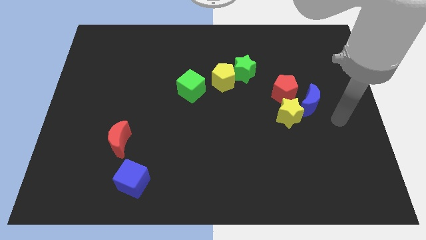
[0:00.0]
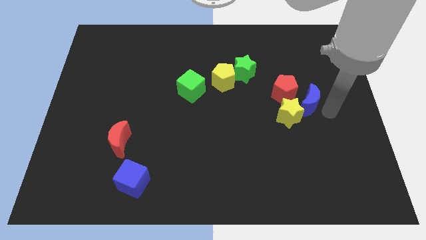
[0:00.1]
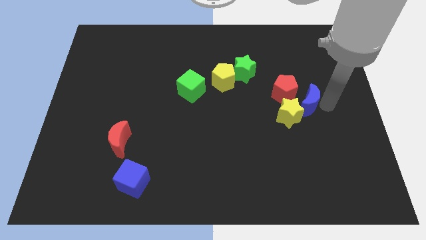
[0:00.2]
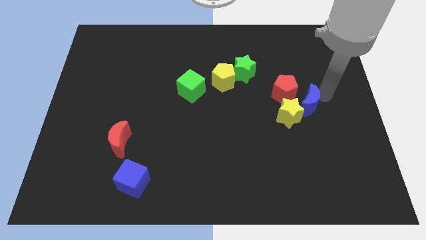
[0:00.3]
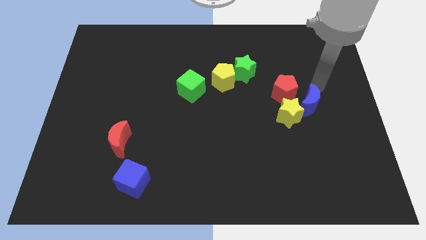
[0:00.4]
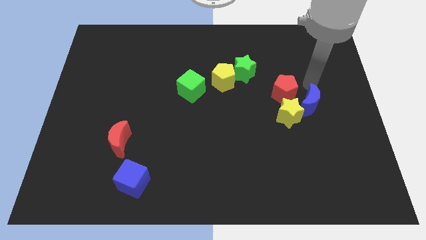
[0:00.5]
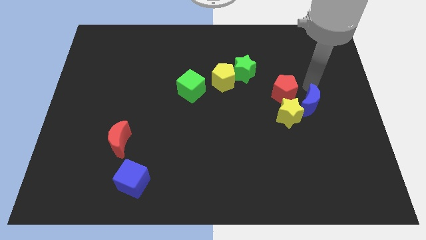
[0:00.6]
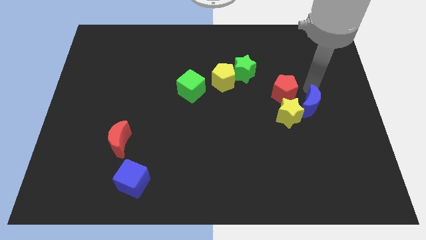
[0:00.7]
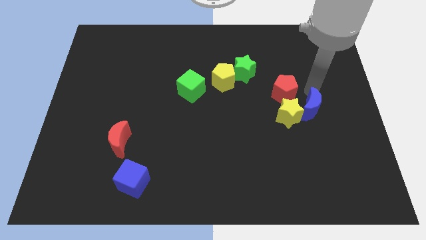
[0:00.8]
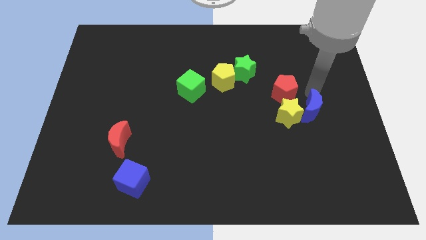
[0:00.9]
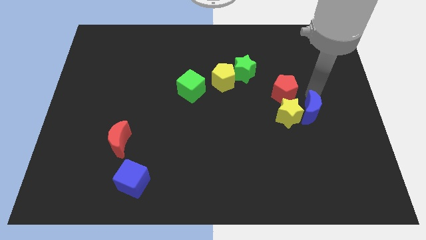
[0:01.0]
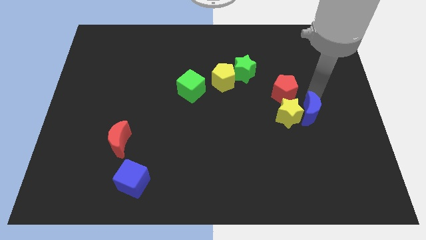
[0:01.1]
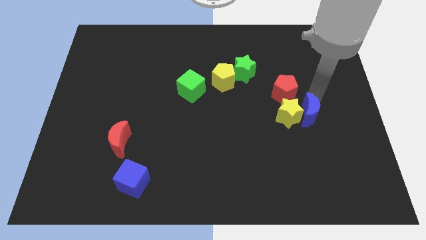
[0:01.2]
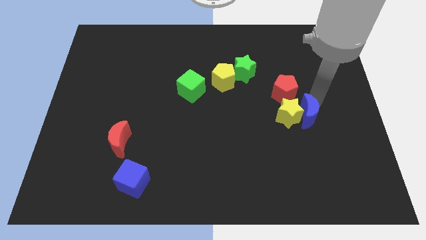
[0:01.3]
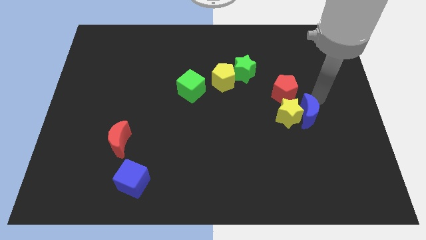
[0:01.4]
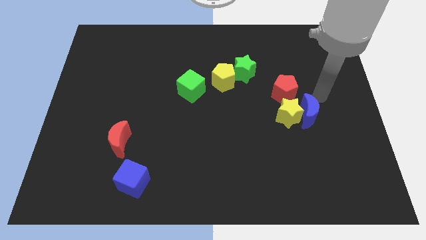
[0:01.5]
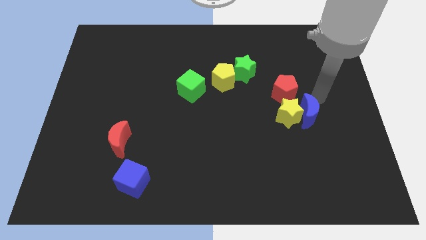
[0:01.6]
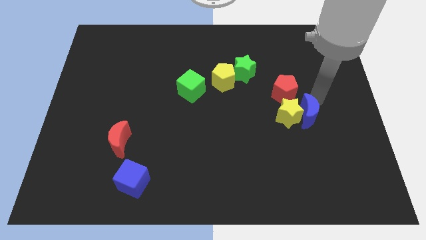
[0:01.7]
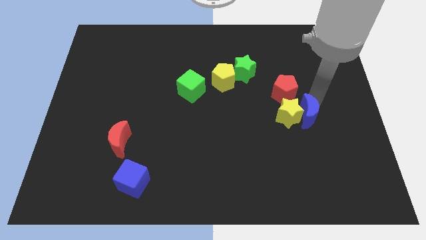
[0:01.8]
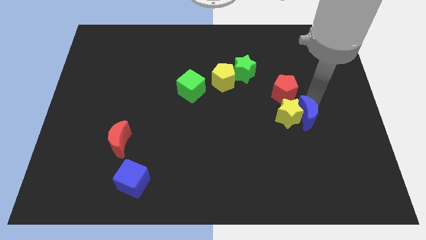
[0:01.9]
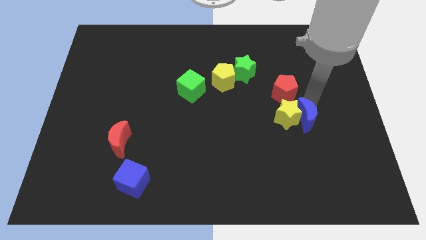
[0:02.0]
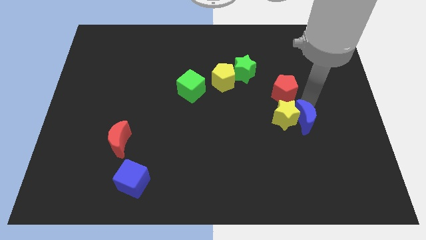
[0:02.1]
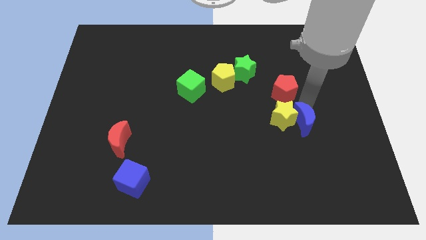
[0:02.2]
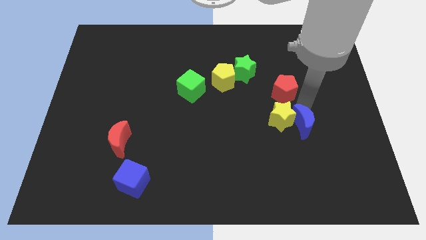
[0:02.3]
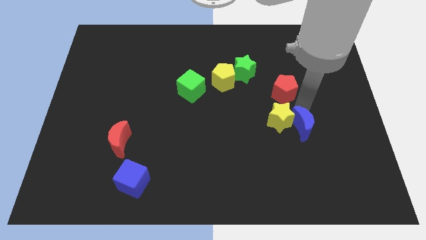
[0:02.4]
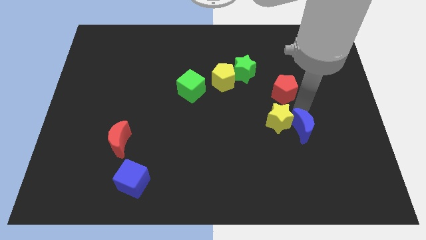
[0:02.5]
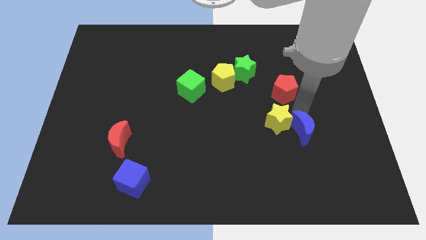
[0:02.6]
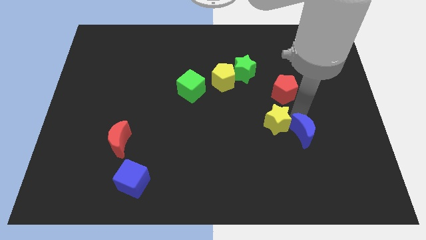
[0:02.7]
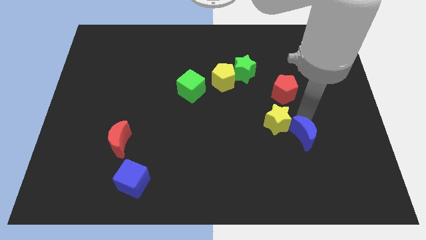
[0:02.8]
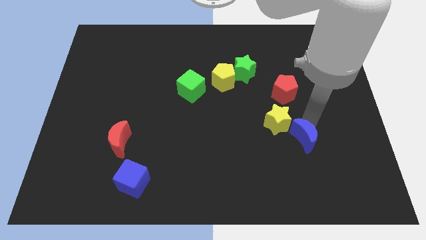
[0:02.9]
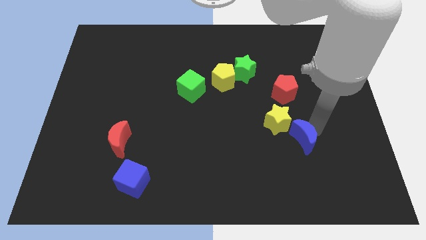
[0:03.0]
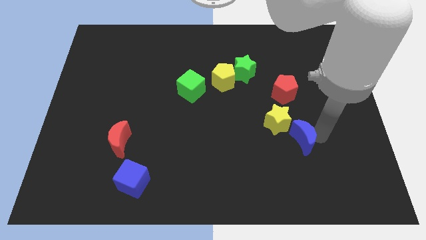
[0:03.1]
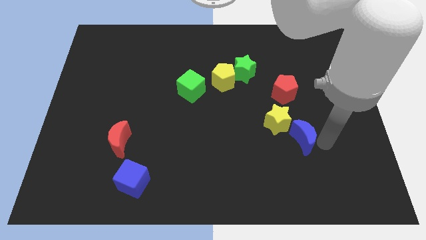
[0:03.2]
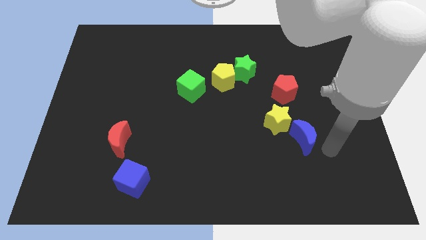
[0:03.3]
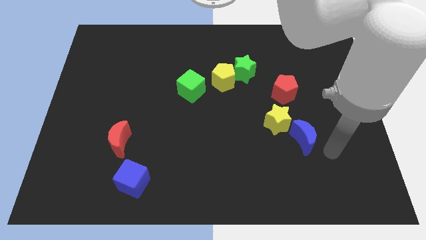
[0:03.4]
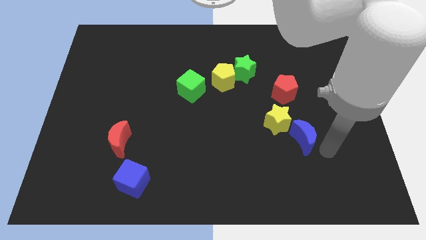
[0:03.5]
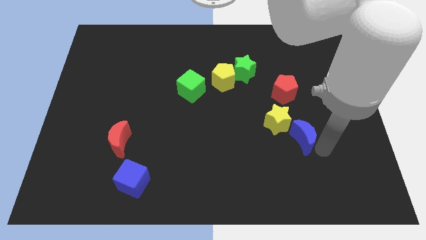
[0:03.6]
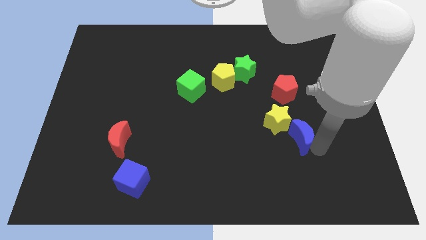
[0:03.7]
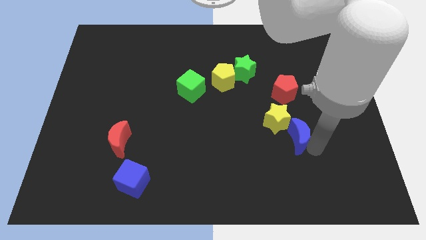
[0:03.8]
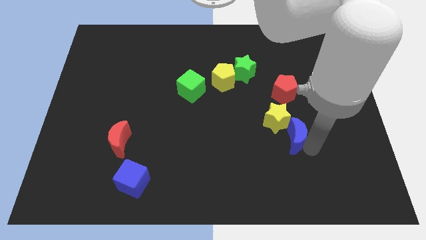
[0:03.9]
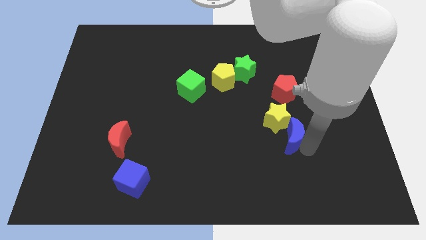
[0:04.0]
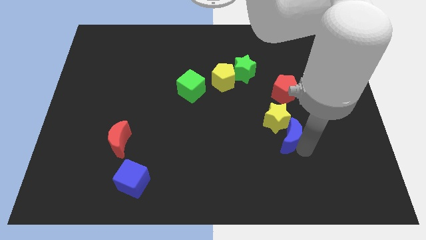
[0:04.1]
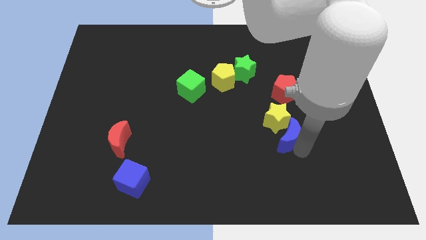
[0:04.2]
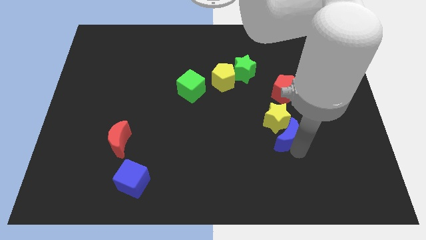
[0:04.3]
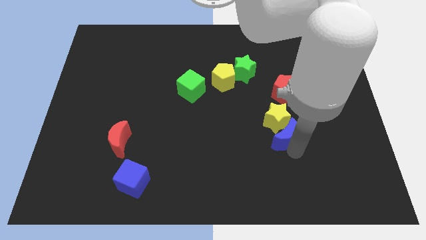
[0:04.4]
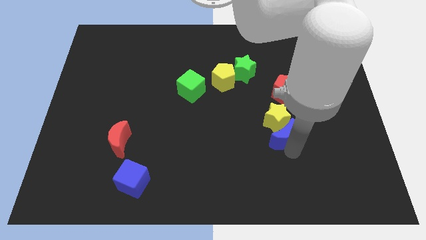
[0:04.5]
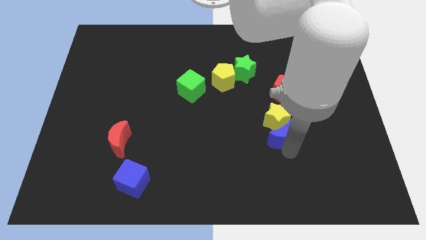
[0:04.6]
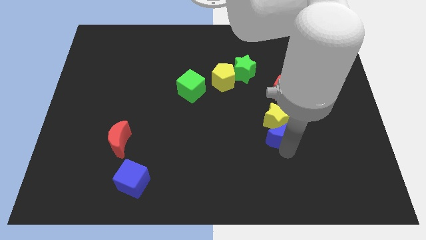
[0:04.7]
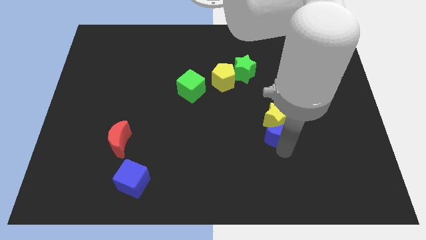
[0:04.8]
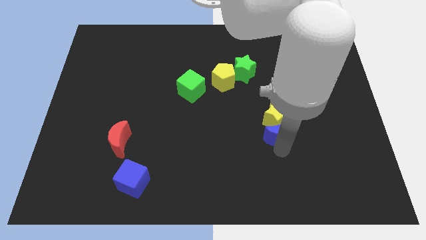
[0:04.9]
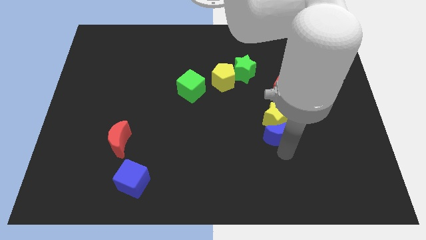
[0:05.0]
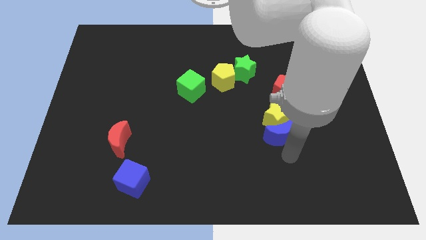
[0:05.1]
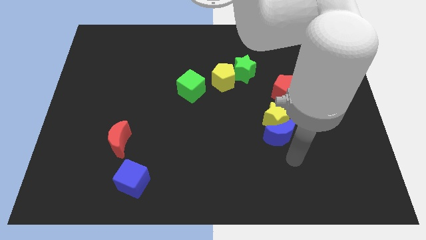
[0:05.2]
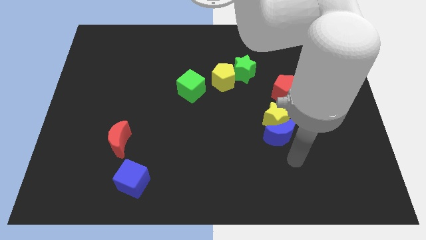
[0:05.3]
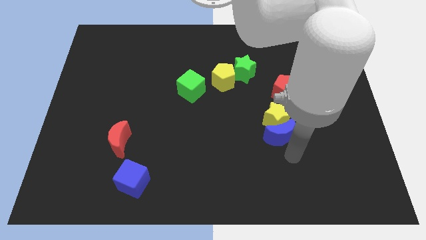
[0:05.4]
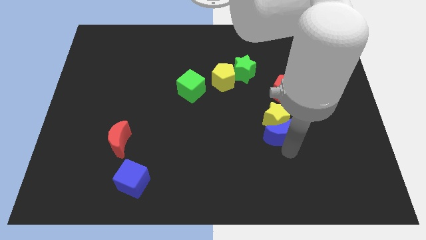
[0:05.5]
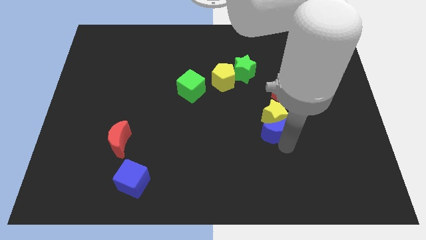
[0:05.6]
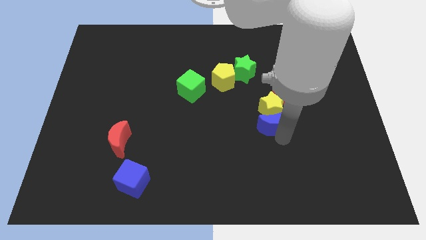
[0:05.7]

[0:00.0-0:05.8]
move the blue moon a little bit left

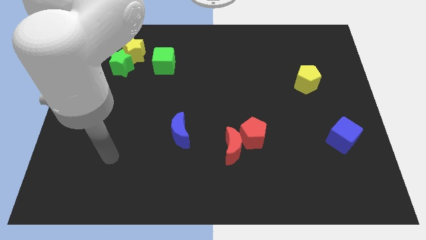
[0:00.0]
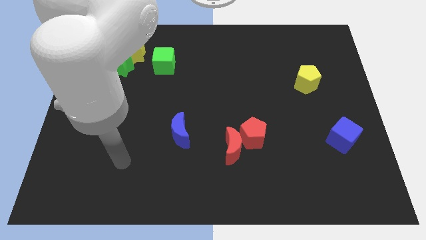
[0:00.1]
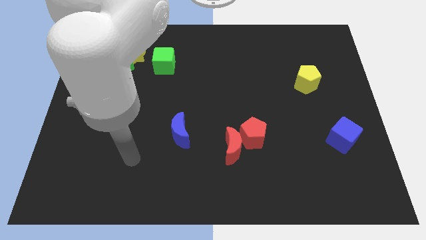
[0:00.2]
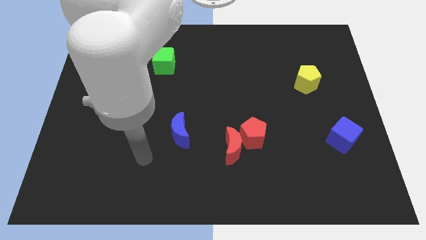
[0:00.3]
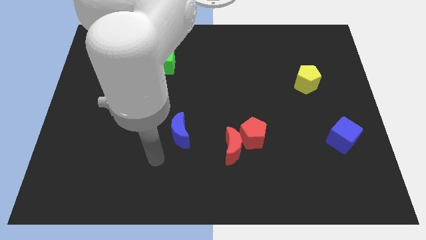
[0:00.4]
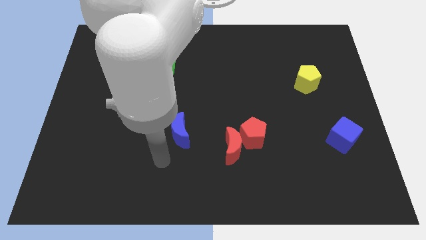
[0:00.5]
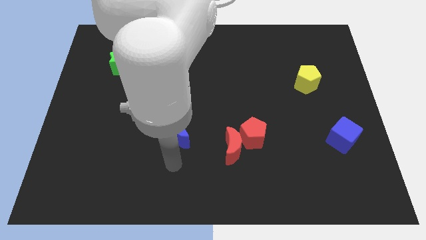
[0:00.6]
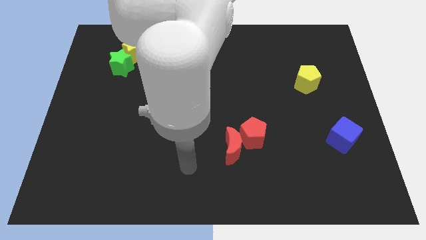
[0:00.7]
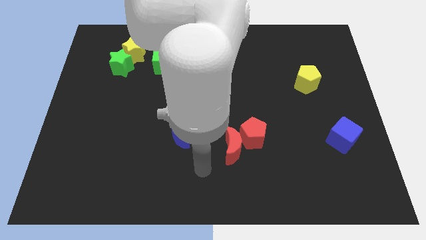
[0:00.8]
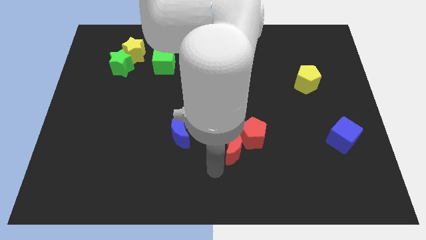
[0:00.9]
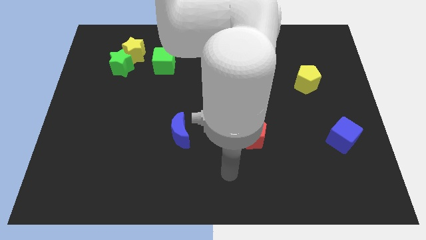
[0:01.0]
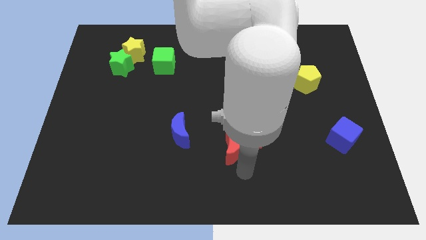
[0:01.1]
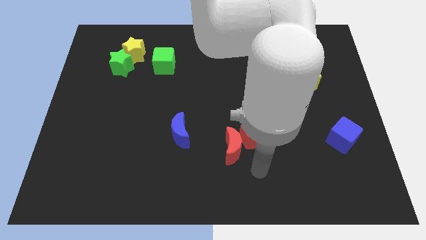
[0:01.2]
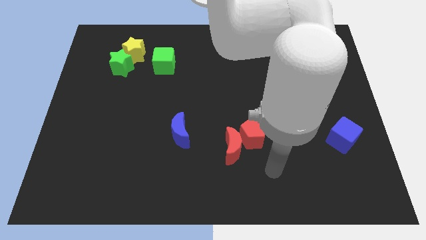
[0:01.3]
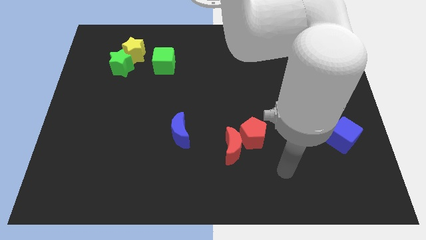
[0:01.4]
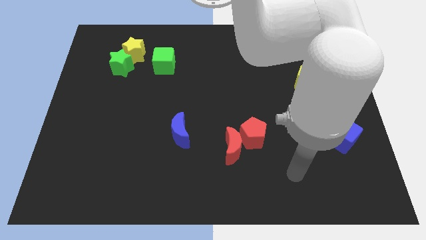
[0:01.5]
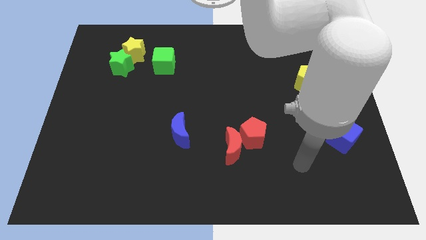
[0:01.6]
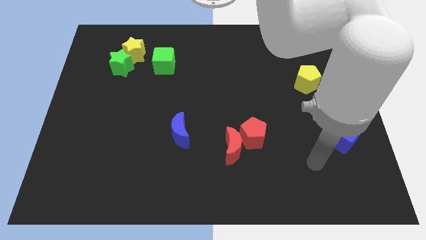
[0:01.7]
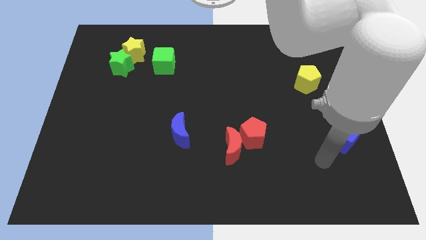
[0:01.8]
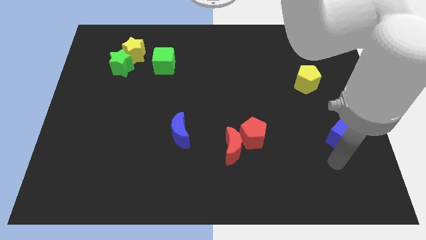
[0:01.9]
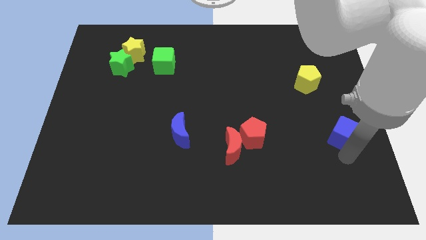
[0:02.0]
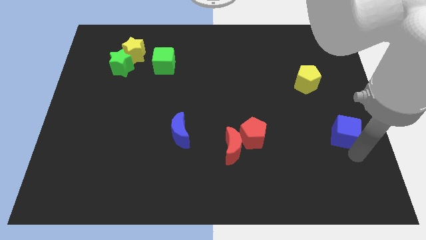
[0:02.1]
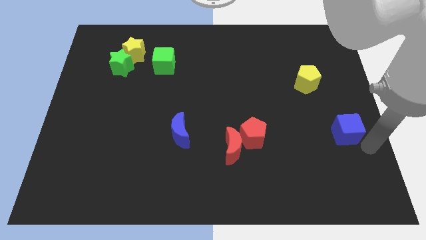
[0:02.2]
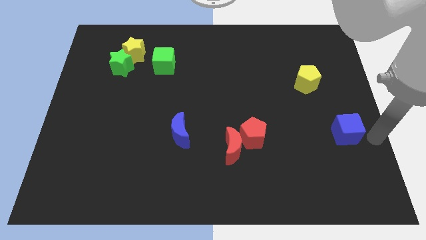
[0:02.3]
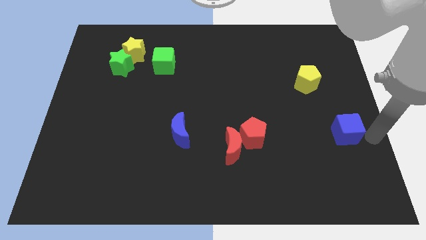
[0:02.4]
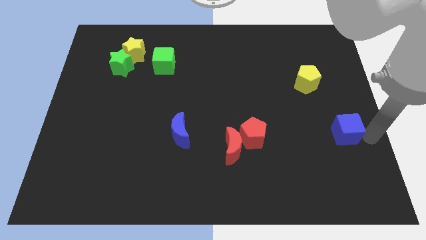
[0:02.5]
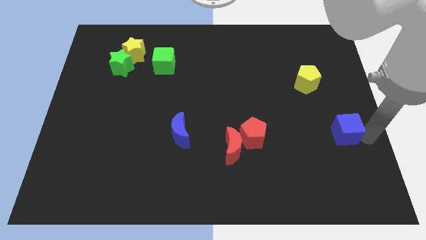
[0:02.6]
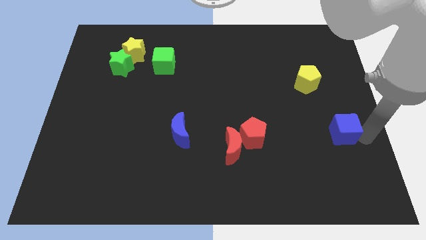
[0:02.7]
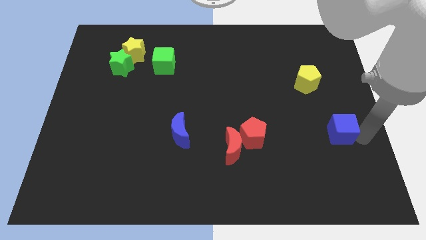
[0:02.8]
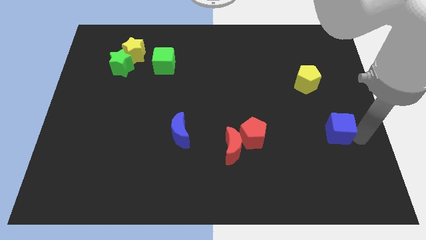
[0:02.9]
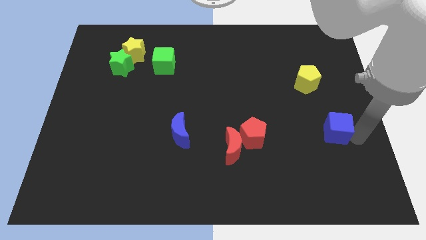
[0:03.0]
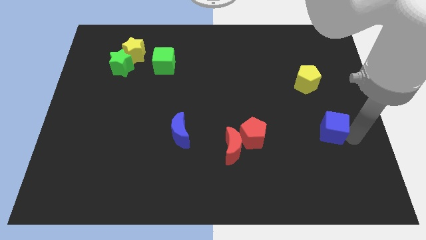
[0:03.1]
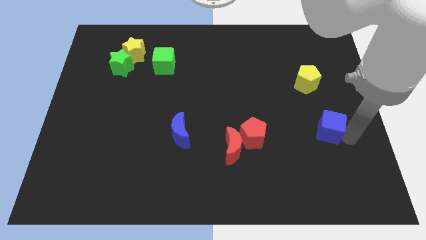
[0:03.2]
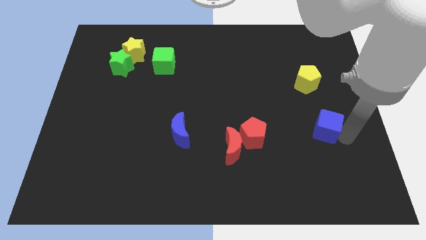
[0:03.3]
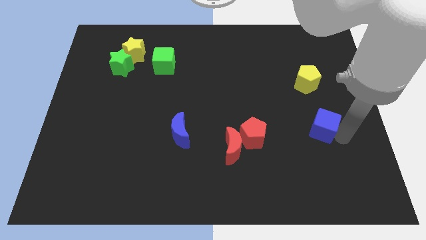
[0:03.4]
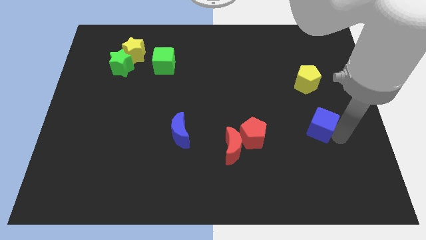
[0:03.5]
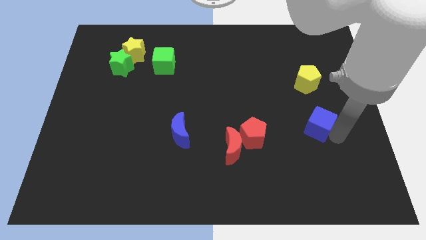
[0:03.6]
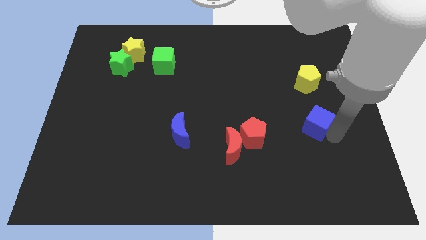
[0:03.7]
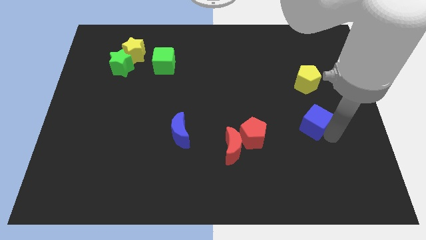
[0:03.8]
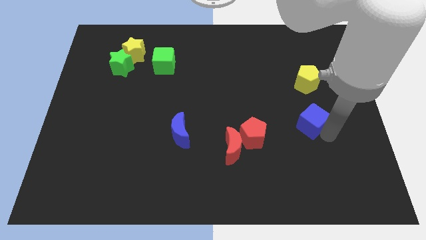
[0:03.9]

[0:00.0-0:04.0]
push the blue cube diagonally up and left a little
